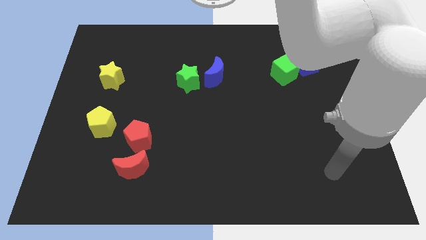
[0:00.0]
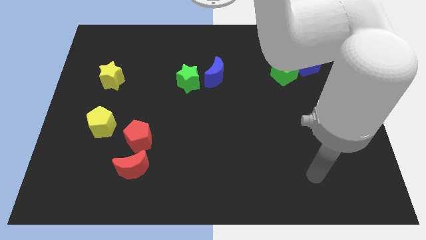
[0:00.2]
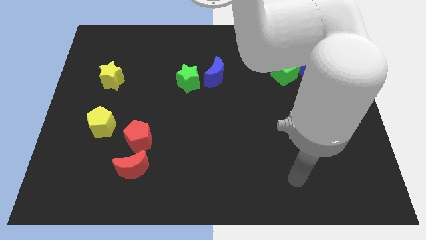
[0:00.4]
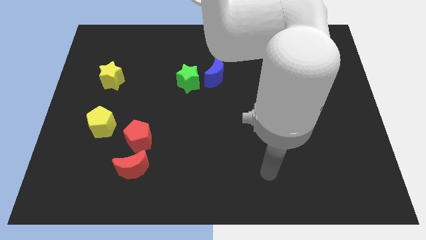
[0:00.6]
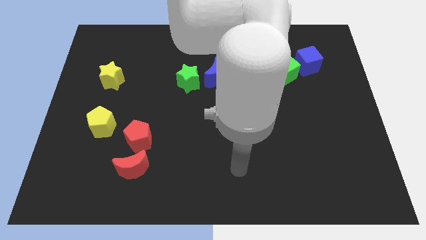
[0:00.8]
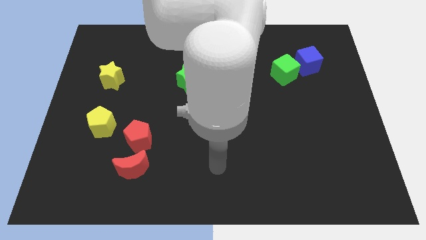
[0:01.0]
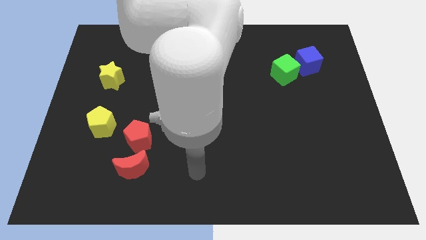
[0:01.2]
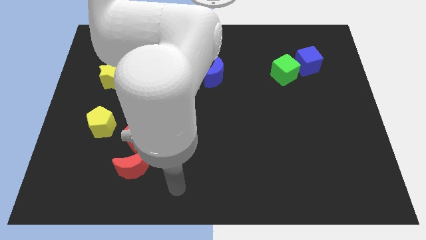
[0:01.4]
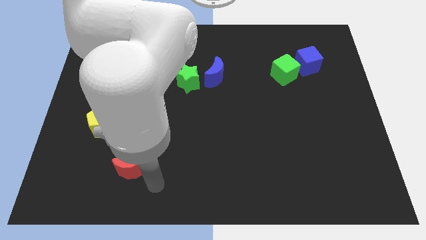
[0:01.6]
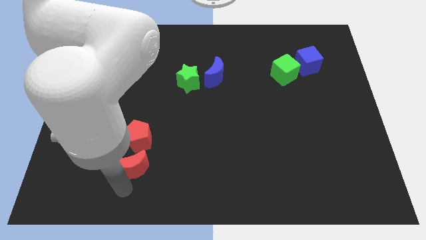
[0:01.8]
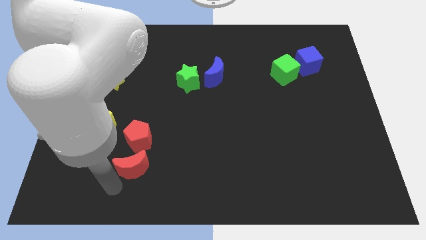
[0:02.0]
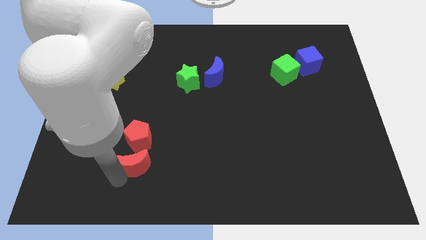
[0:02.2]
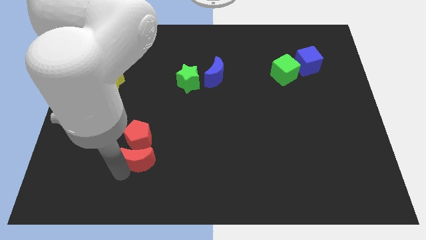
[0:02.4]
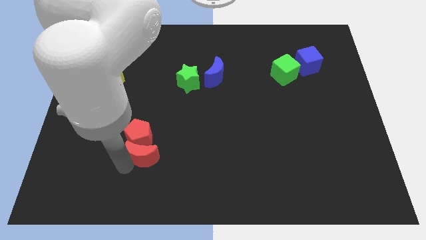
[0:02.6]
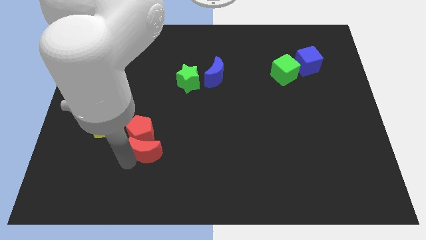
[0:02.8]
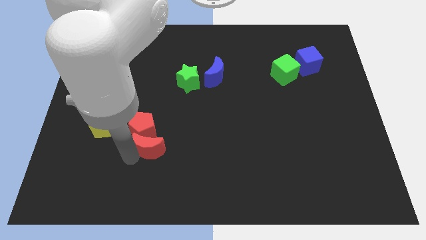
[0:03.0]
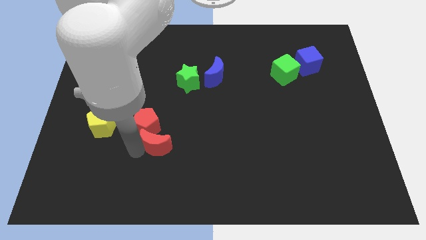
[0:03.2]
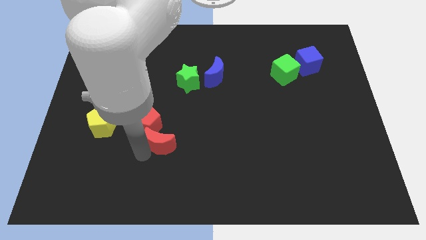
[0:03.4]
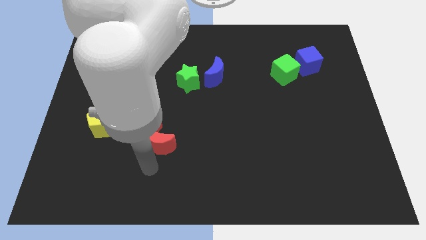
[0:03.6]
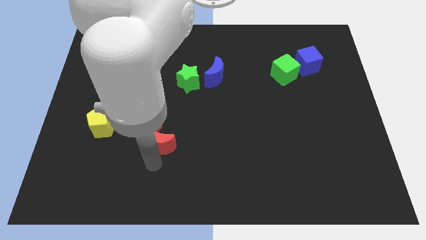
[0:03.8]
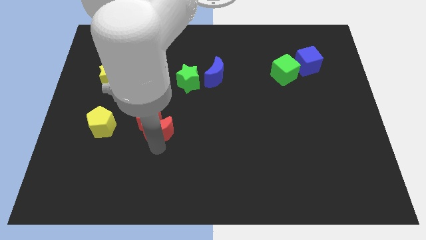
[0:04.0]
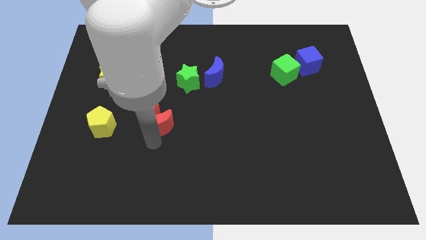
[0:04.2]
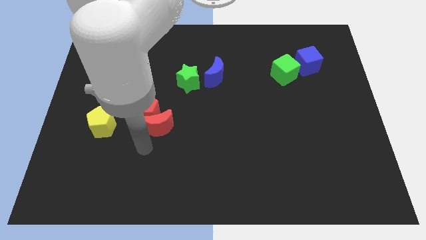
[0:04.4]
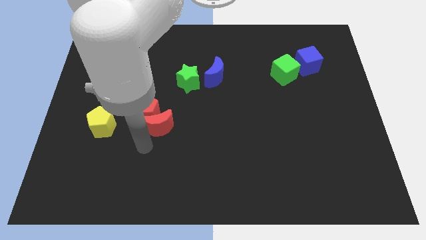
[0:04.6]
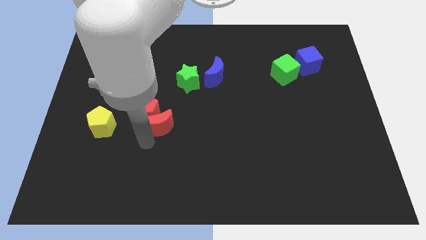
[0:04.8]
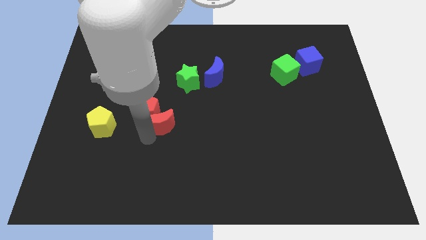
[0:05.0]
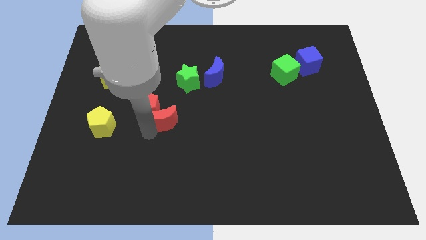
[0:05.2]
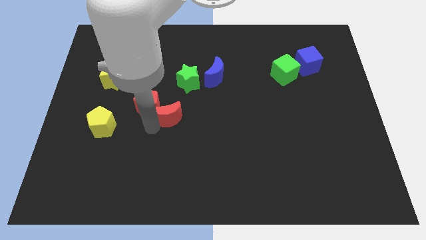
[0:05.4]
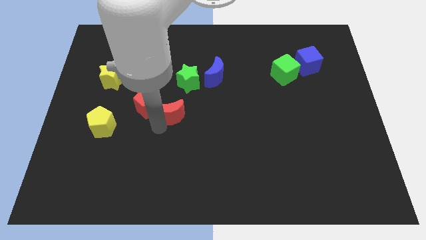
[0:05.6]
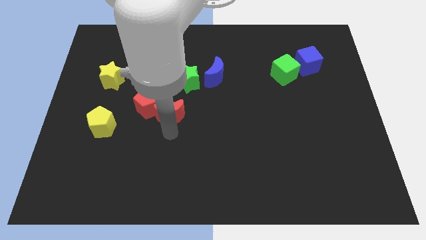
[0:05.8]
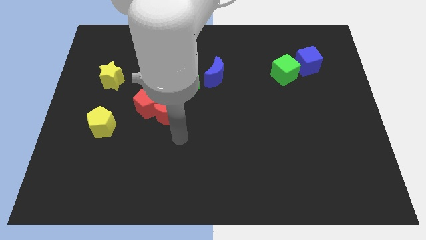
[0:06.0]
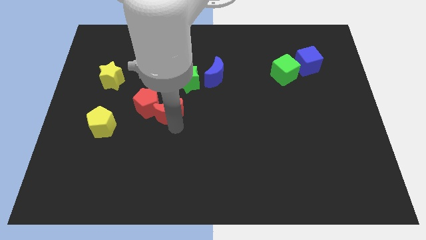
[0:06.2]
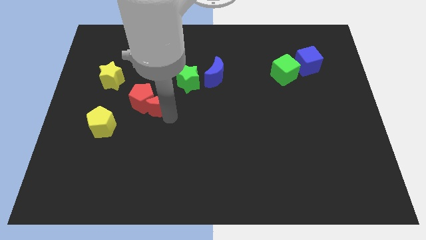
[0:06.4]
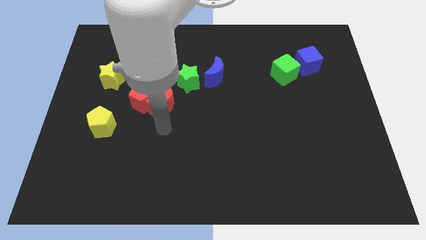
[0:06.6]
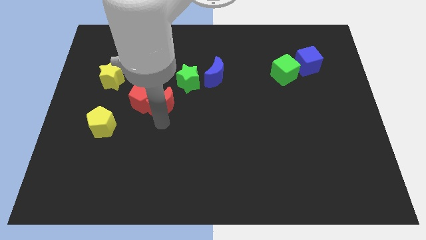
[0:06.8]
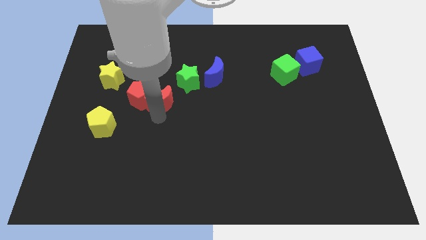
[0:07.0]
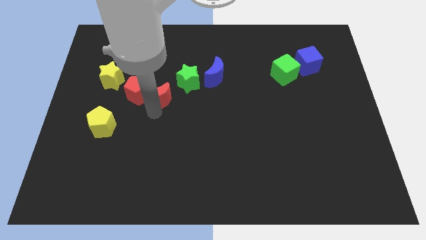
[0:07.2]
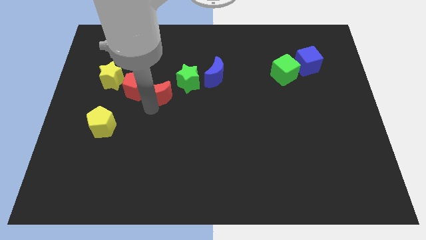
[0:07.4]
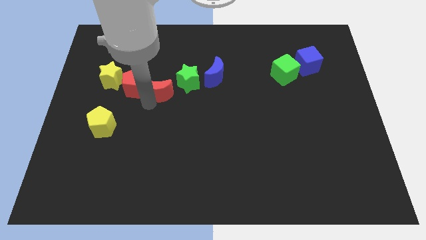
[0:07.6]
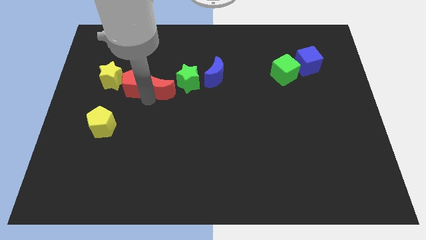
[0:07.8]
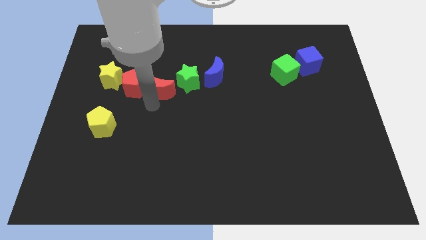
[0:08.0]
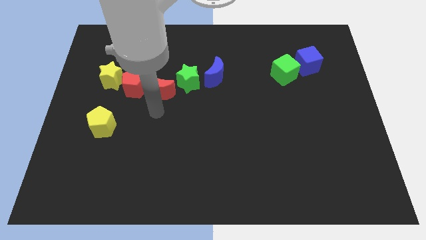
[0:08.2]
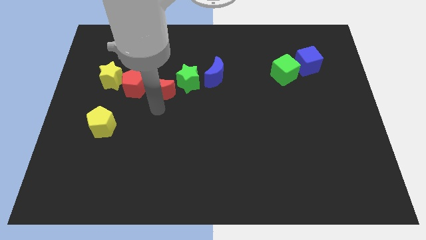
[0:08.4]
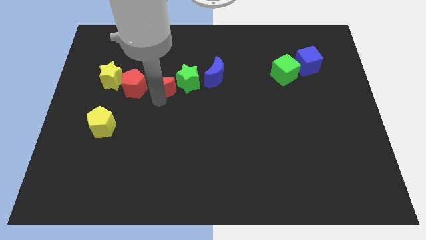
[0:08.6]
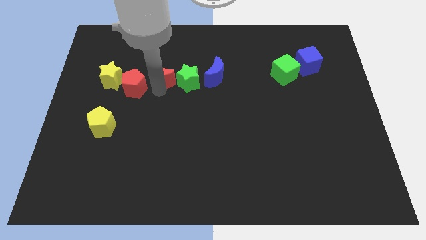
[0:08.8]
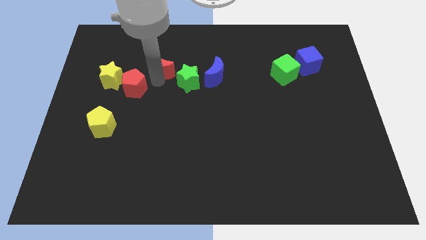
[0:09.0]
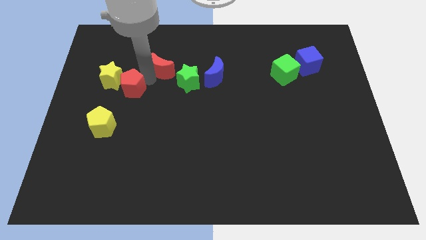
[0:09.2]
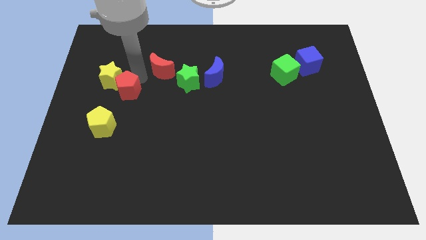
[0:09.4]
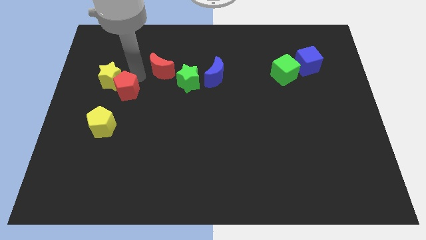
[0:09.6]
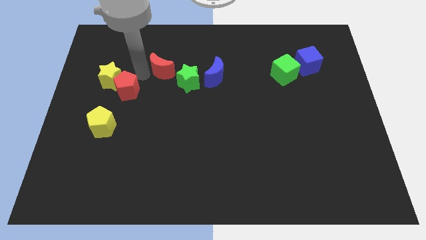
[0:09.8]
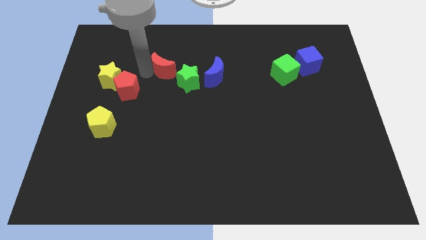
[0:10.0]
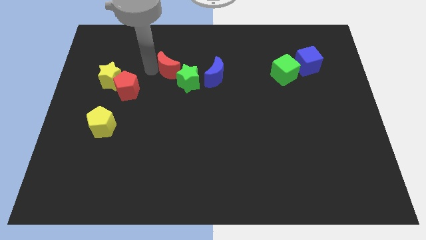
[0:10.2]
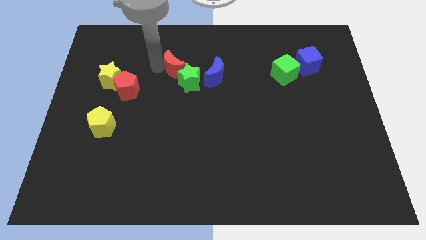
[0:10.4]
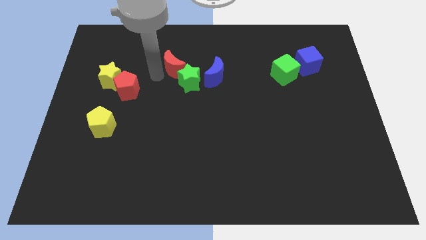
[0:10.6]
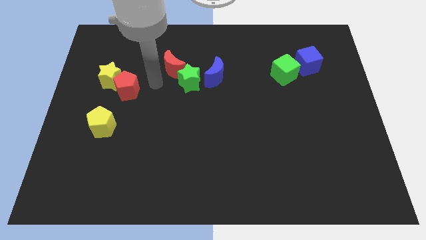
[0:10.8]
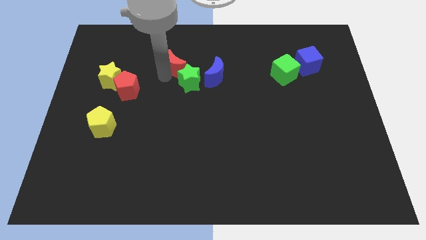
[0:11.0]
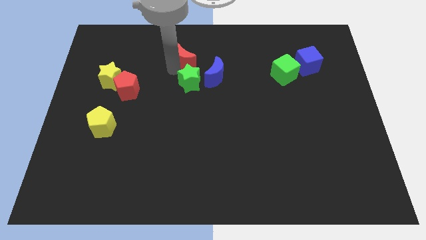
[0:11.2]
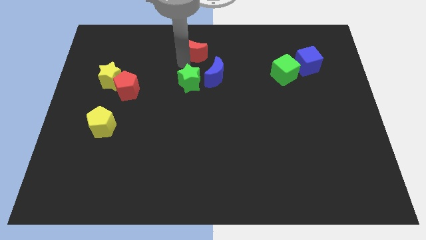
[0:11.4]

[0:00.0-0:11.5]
move the red moon to the top side
